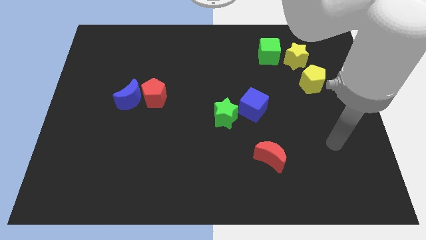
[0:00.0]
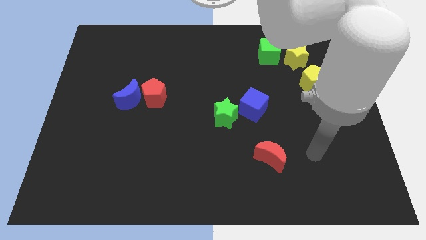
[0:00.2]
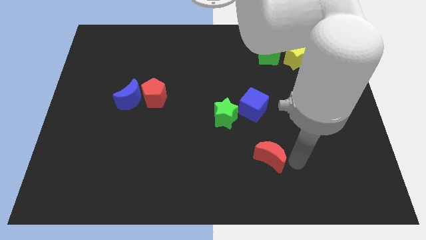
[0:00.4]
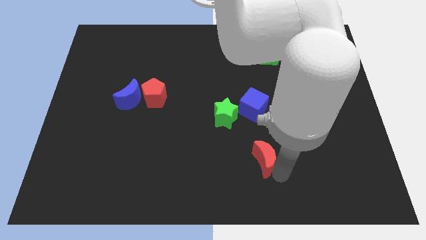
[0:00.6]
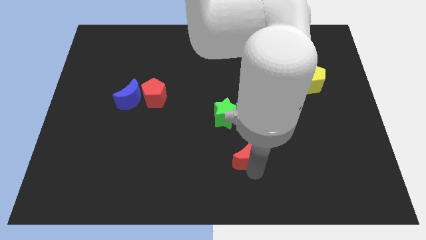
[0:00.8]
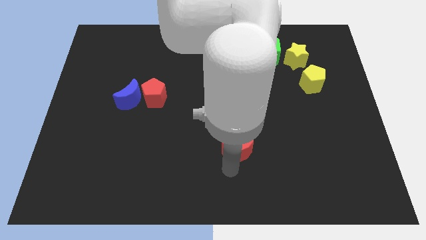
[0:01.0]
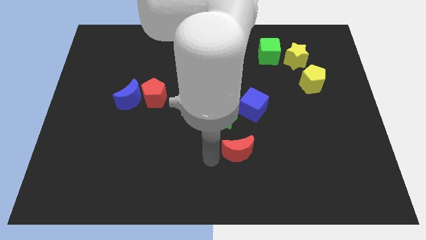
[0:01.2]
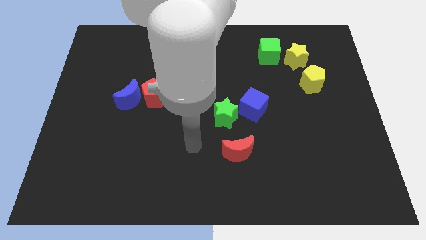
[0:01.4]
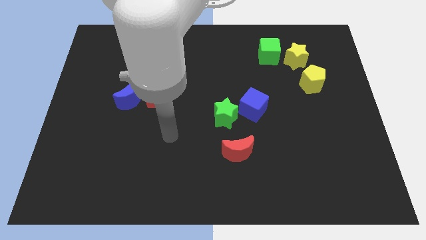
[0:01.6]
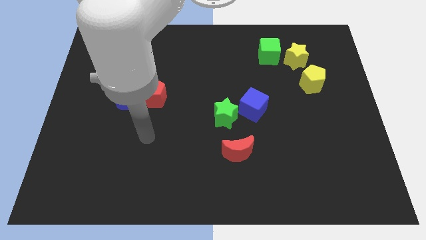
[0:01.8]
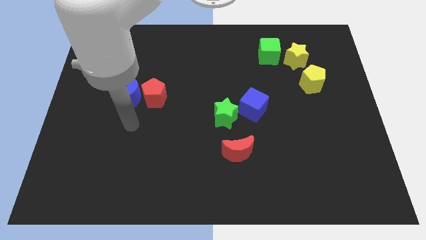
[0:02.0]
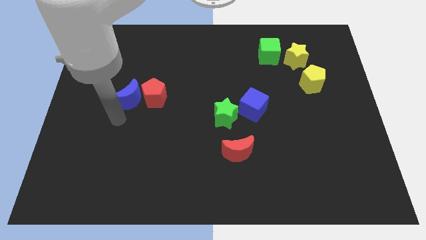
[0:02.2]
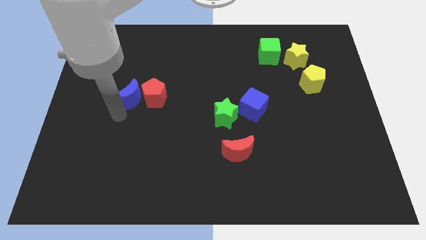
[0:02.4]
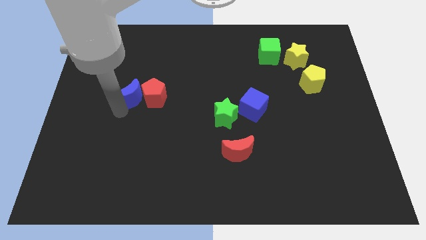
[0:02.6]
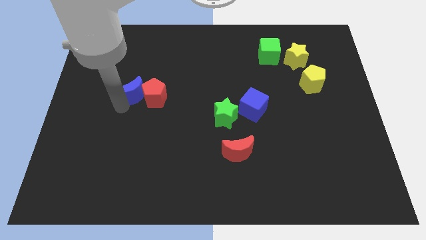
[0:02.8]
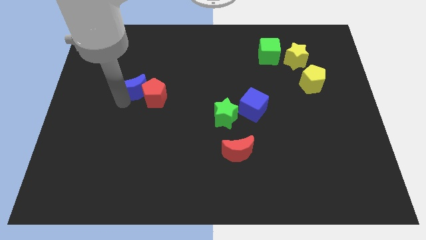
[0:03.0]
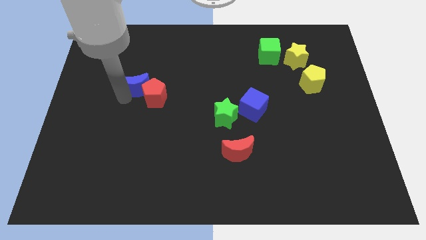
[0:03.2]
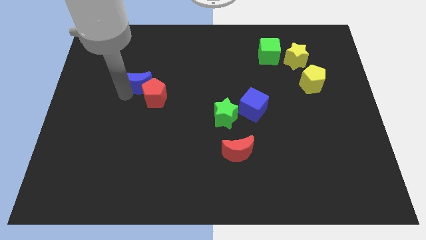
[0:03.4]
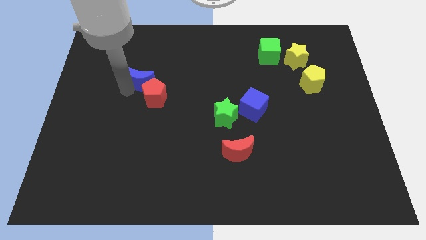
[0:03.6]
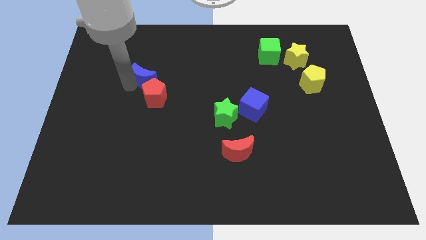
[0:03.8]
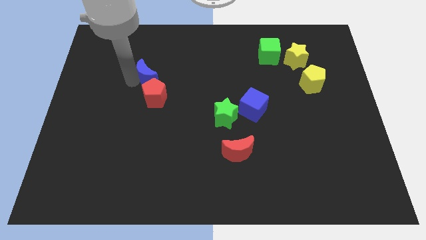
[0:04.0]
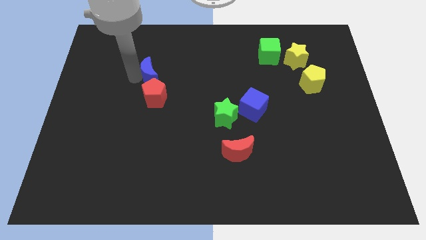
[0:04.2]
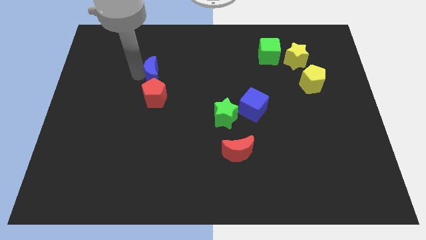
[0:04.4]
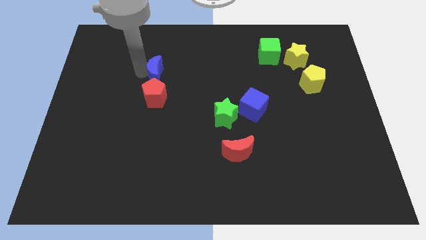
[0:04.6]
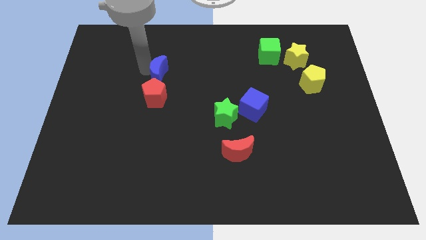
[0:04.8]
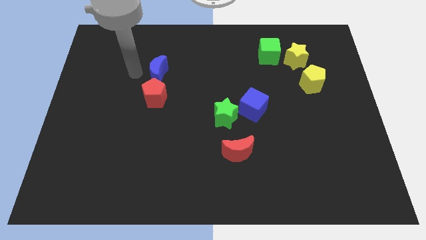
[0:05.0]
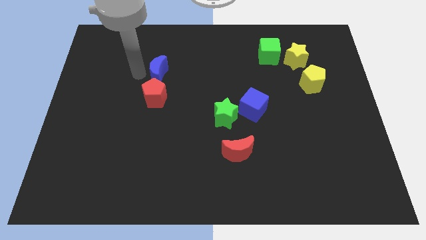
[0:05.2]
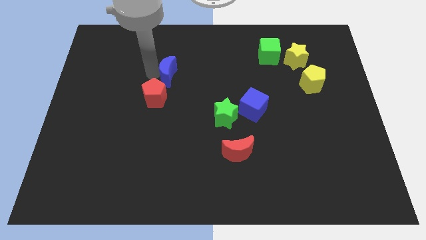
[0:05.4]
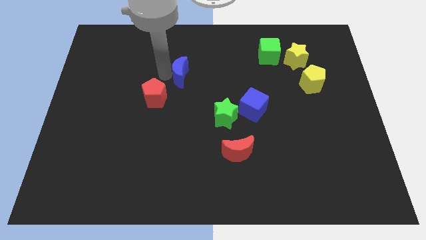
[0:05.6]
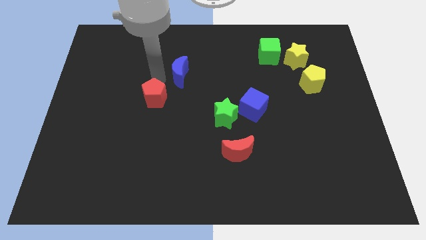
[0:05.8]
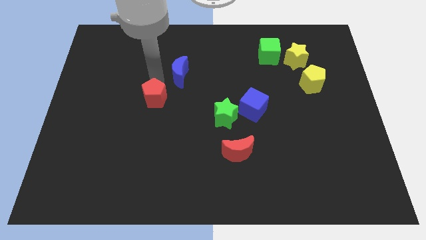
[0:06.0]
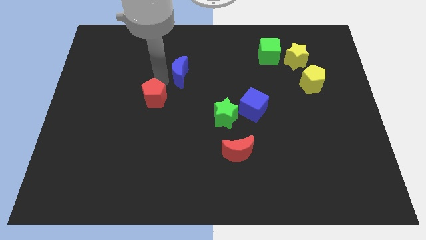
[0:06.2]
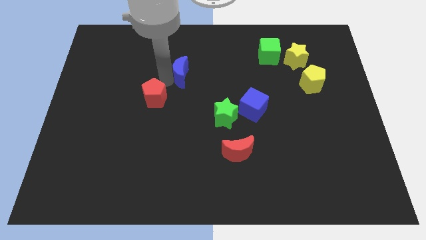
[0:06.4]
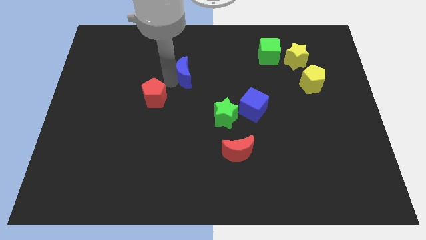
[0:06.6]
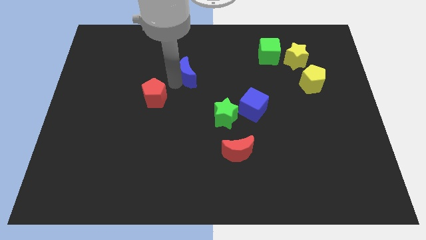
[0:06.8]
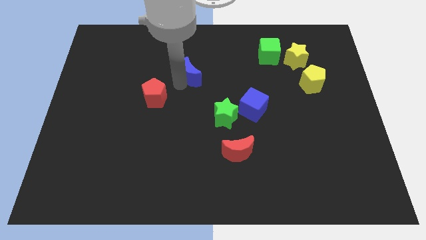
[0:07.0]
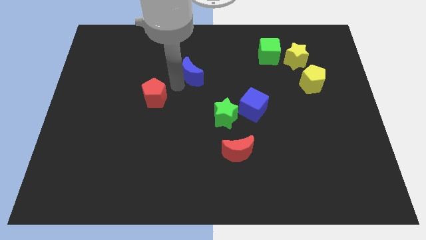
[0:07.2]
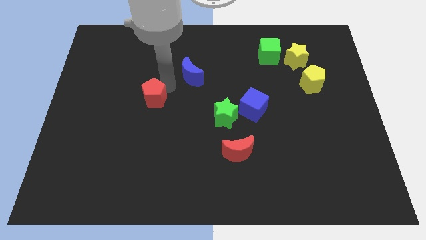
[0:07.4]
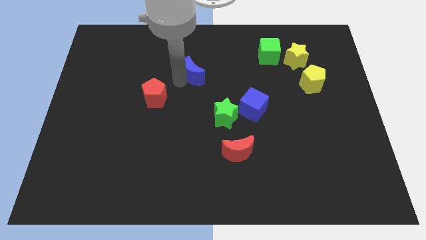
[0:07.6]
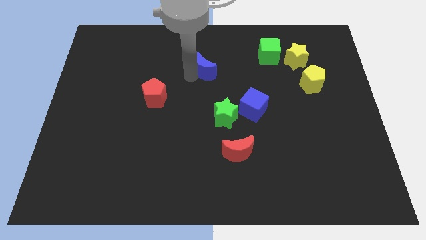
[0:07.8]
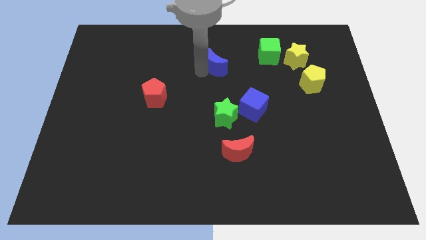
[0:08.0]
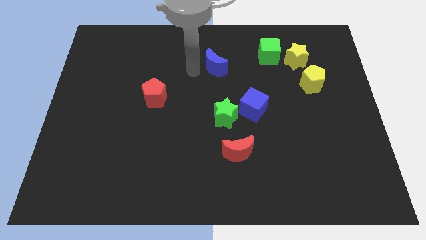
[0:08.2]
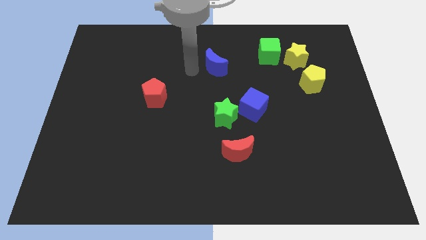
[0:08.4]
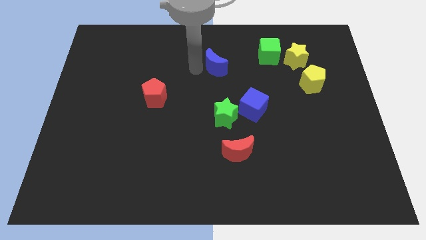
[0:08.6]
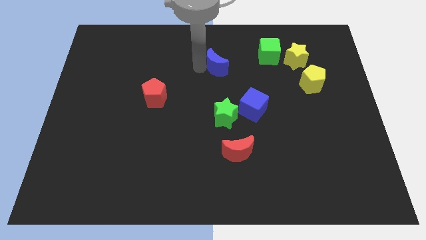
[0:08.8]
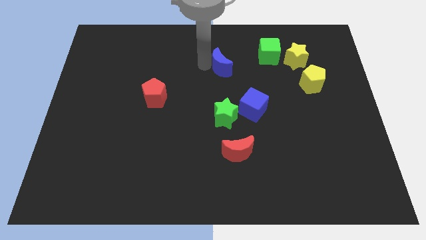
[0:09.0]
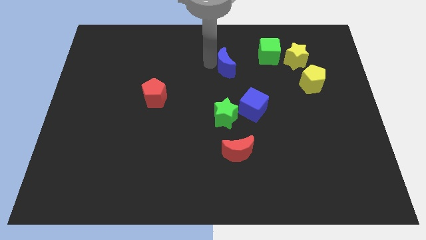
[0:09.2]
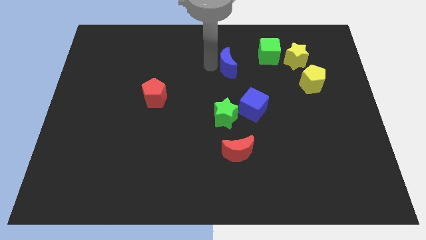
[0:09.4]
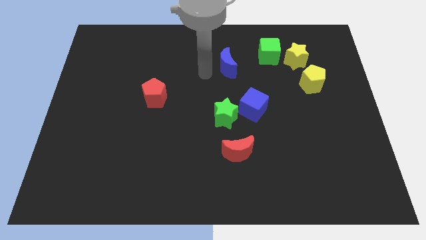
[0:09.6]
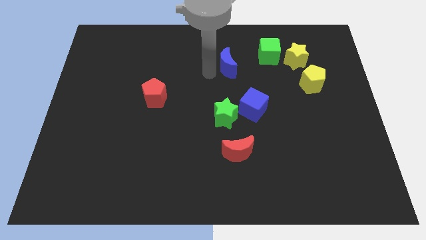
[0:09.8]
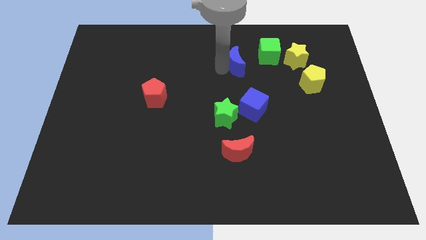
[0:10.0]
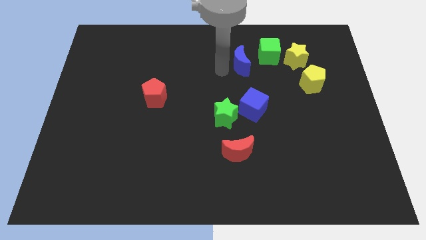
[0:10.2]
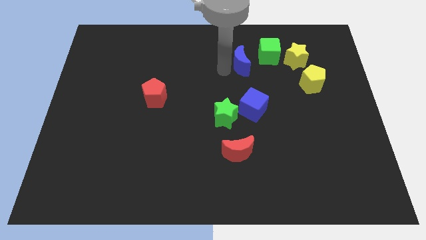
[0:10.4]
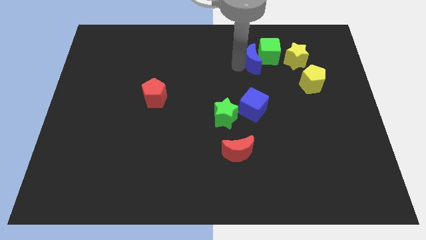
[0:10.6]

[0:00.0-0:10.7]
slide the blue moon next to the green cube

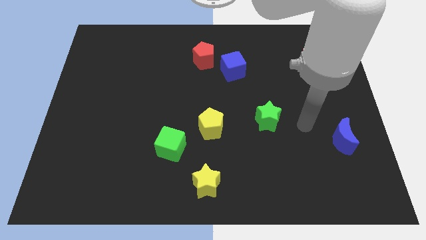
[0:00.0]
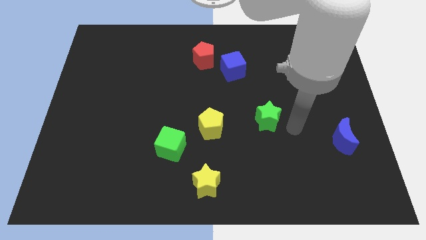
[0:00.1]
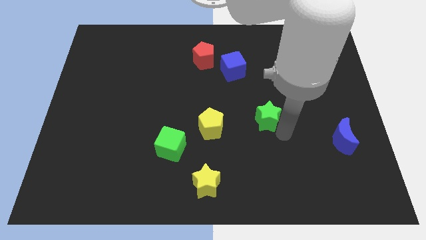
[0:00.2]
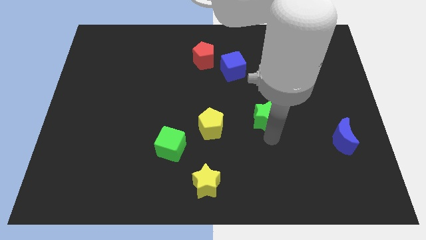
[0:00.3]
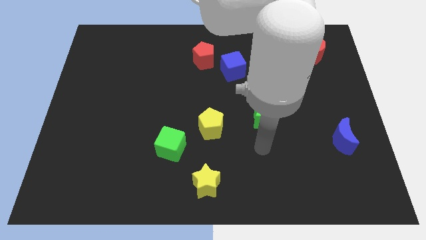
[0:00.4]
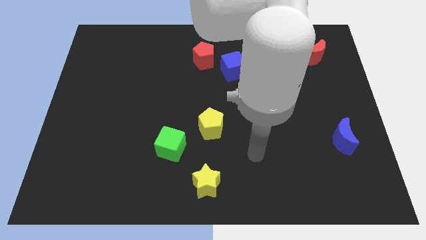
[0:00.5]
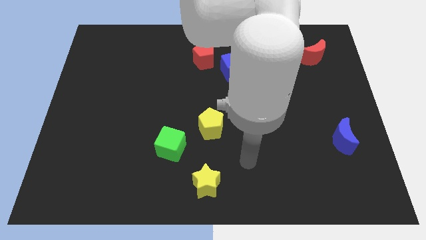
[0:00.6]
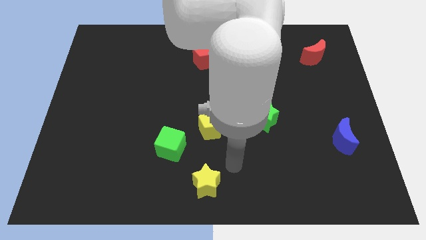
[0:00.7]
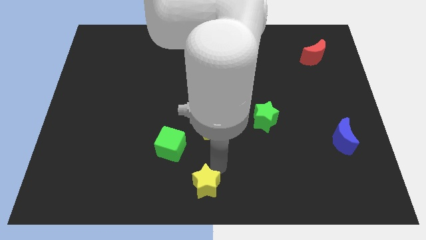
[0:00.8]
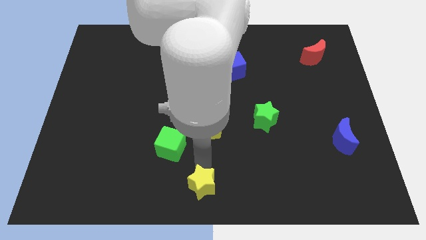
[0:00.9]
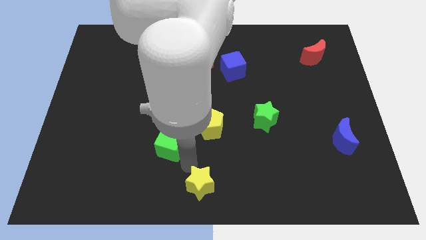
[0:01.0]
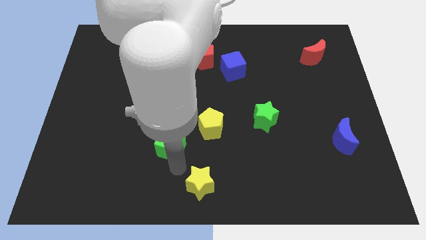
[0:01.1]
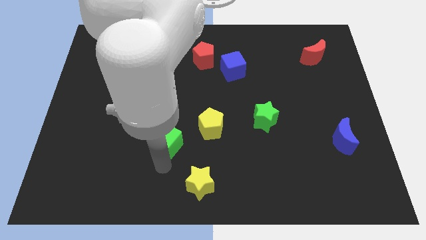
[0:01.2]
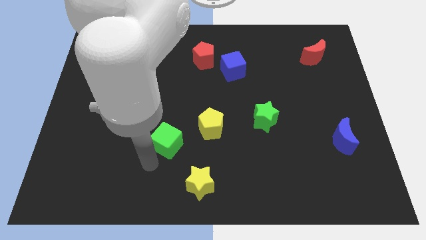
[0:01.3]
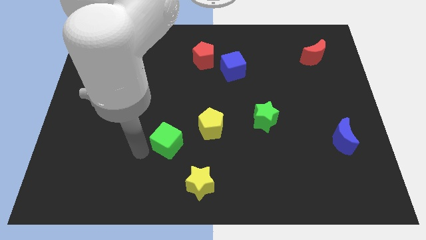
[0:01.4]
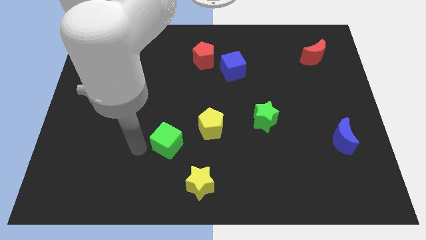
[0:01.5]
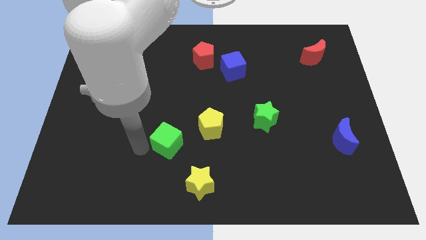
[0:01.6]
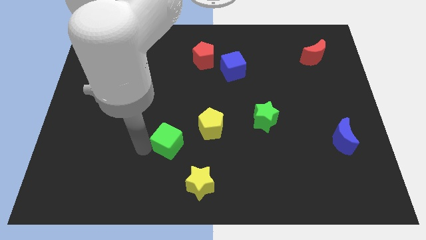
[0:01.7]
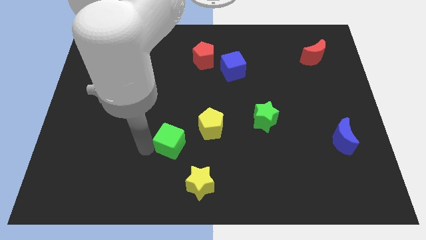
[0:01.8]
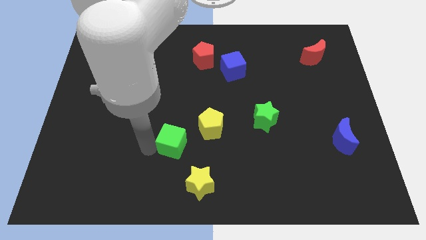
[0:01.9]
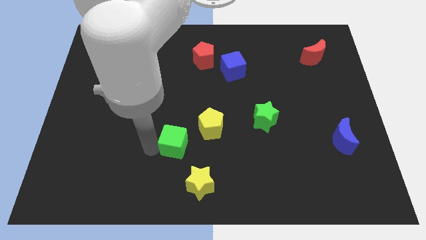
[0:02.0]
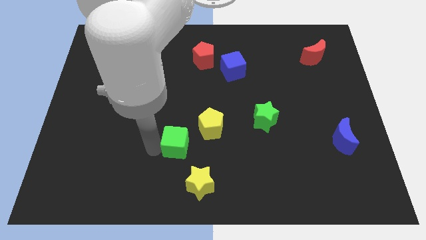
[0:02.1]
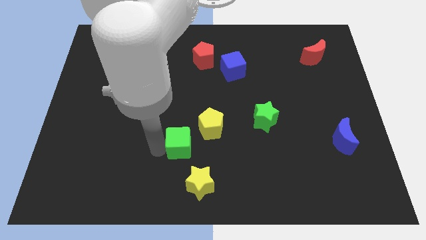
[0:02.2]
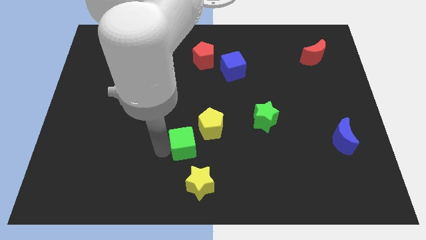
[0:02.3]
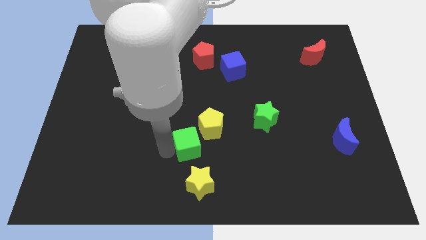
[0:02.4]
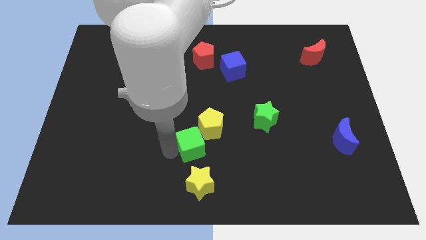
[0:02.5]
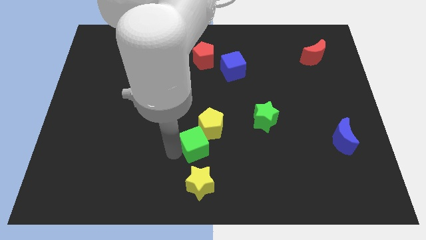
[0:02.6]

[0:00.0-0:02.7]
push the green cube close to the yellow pentagon
